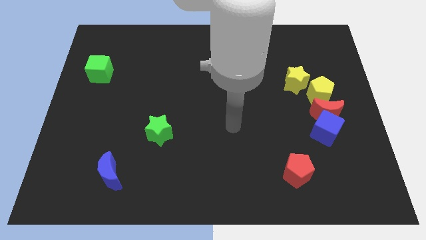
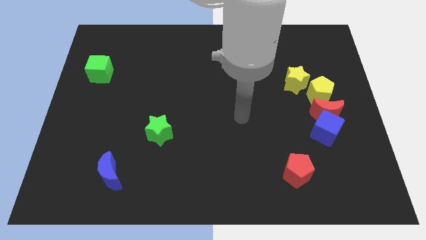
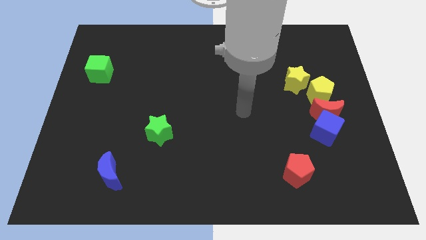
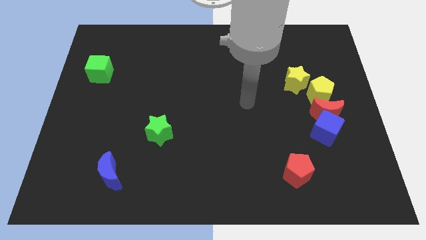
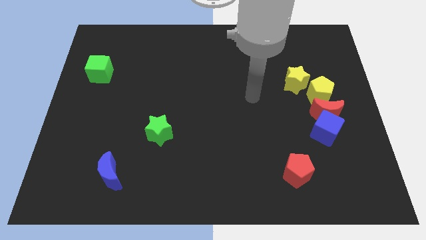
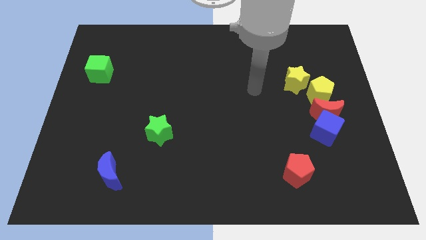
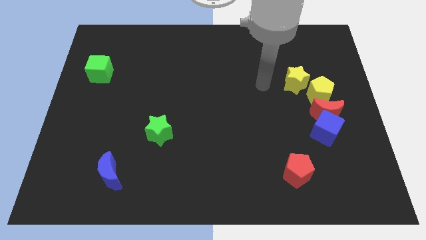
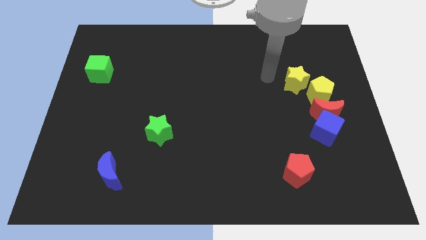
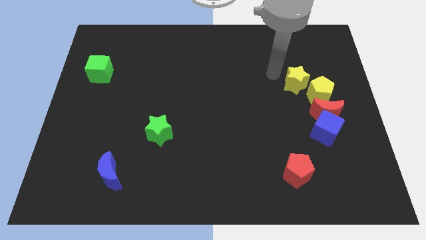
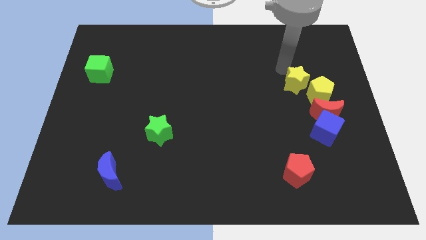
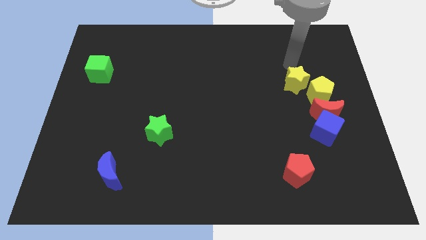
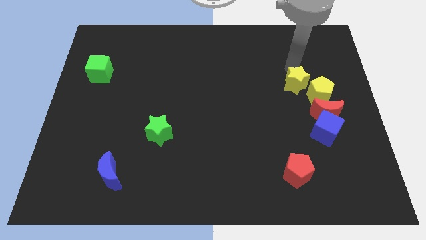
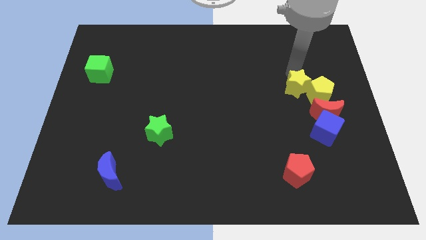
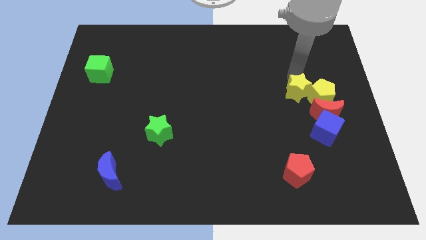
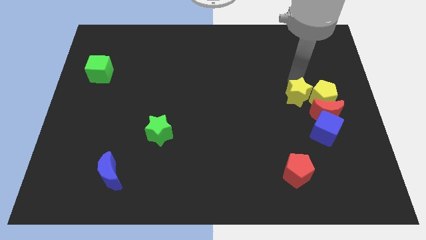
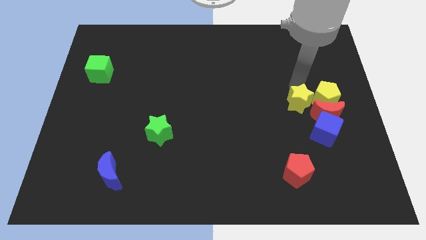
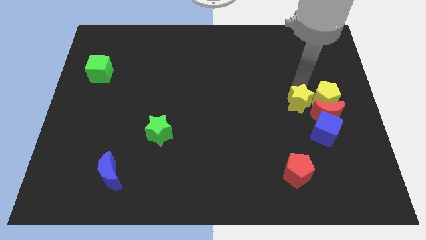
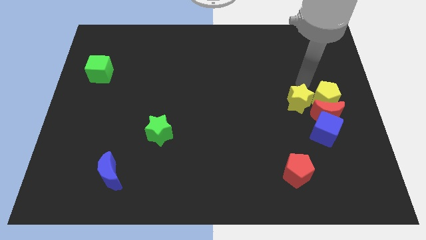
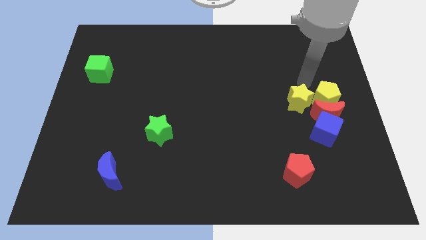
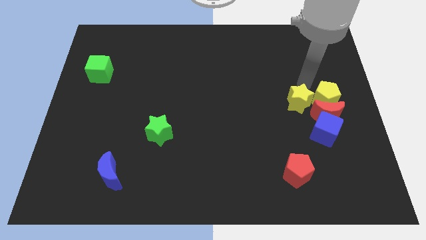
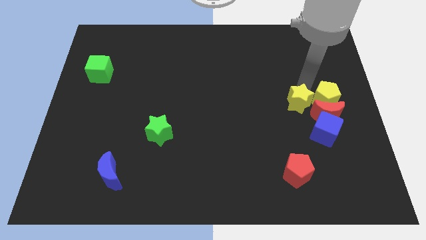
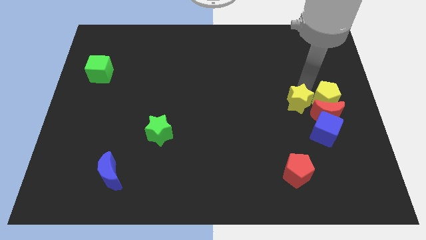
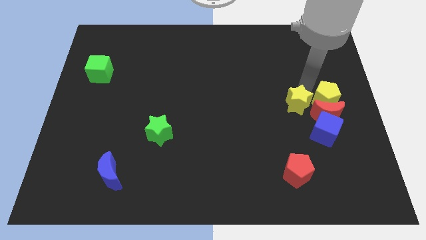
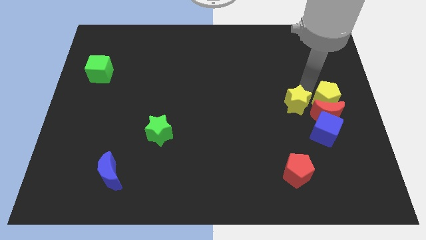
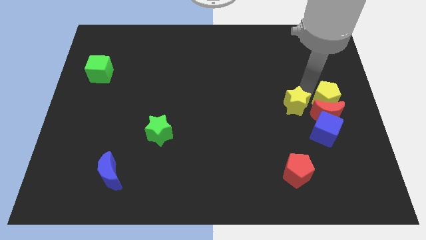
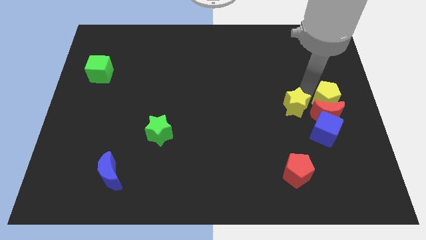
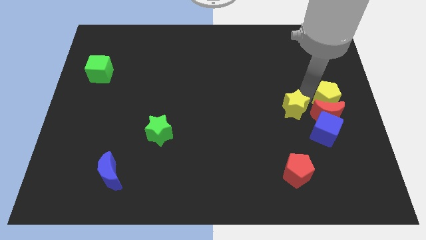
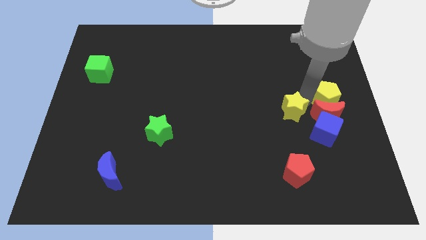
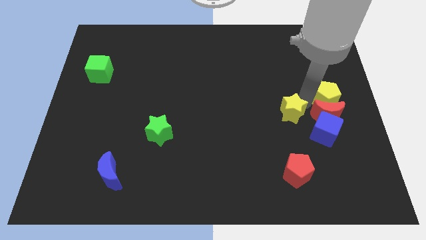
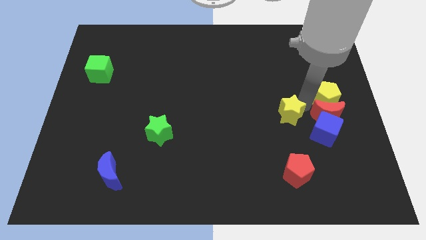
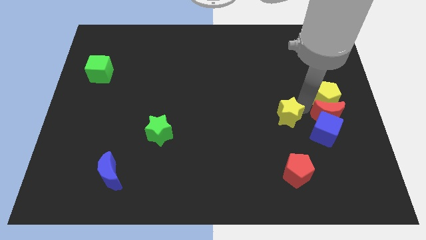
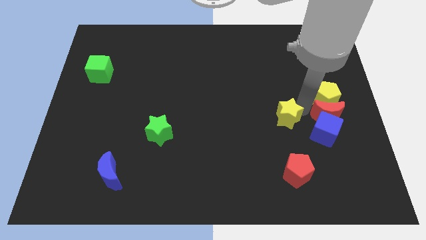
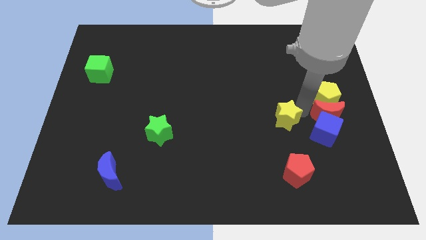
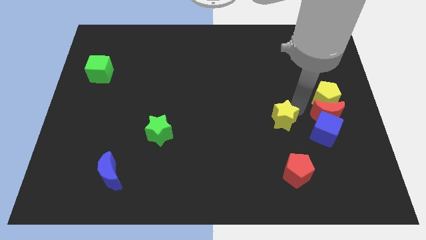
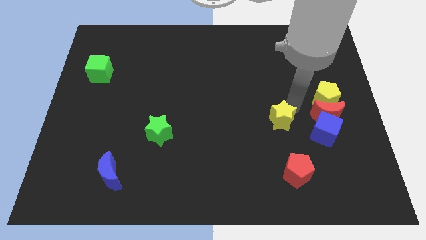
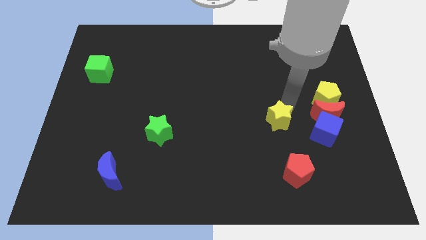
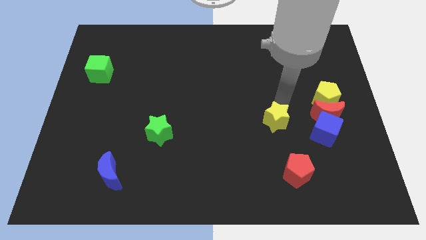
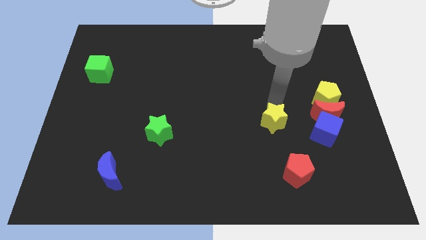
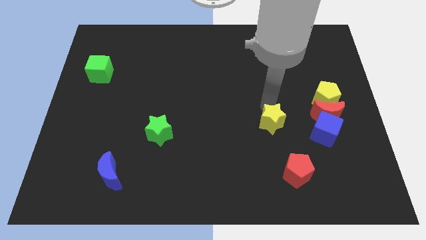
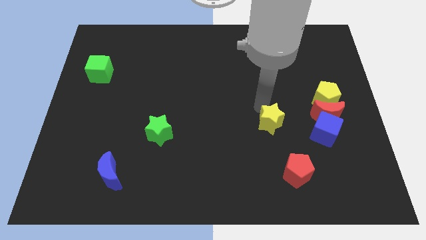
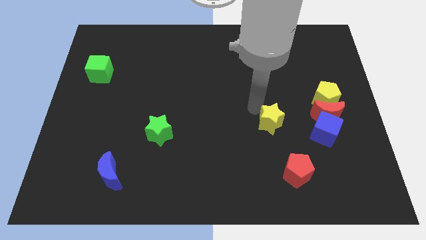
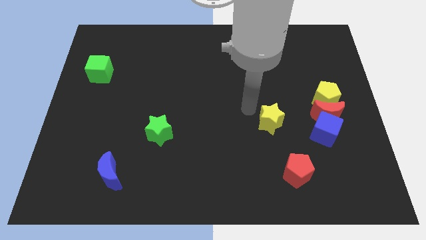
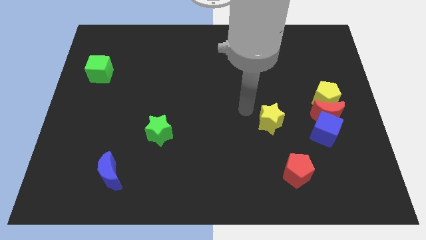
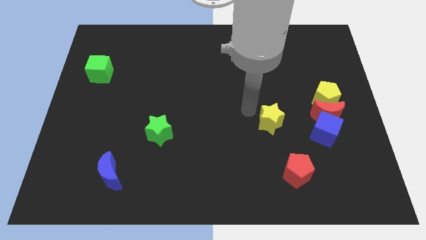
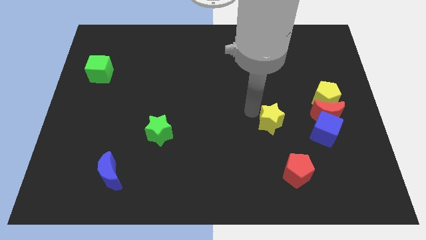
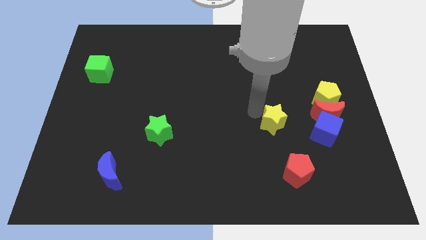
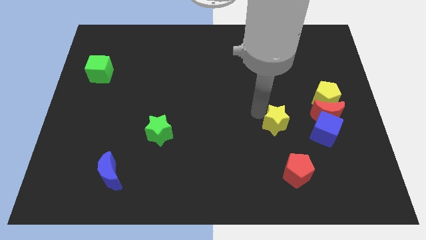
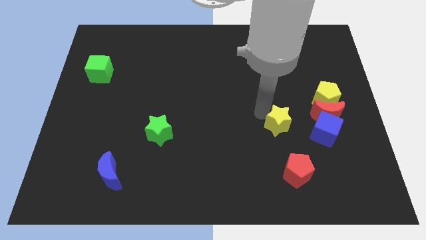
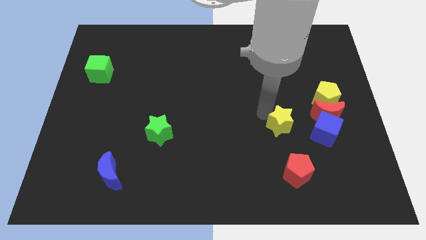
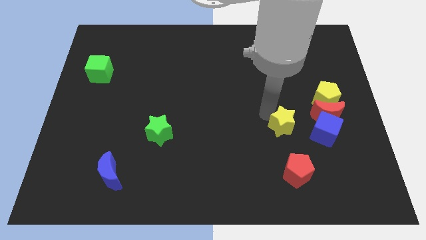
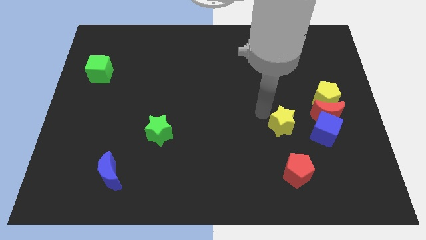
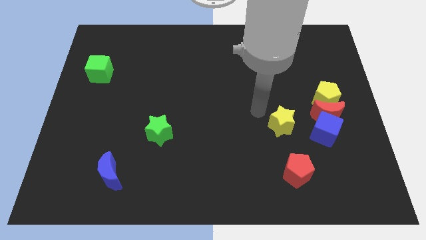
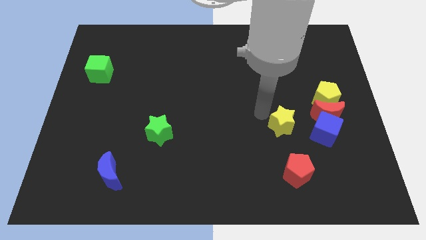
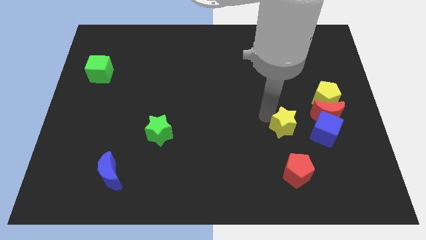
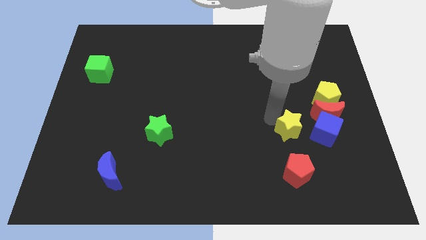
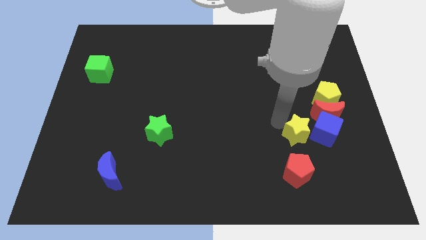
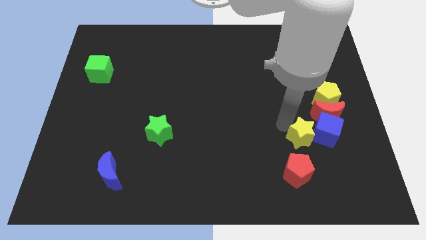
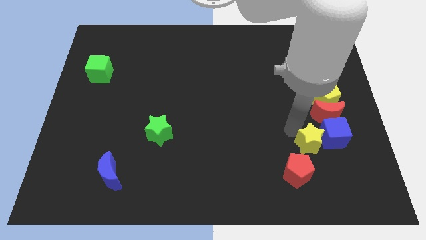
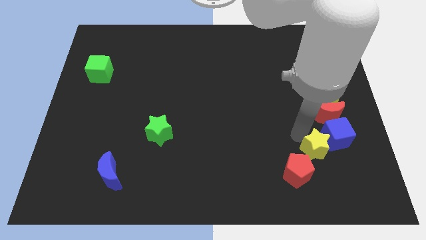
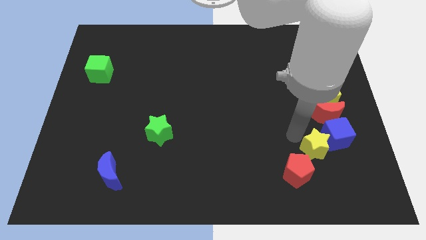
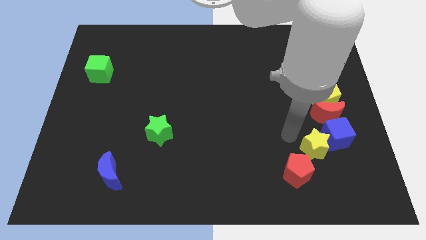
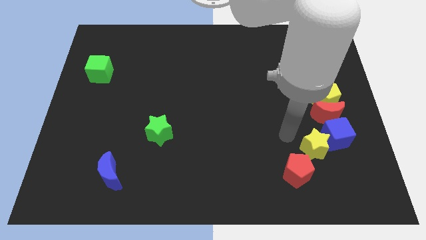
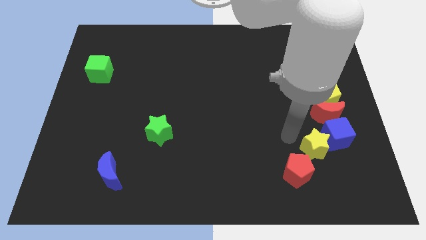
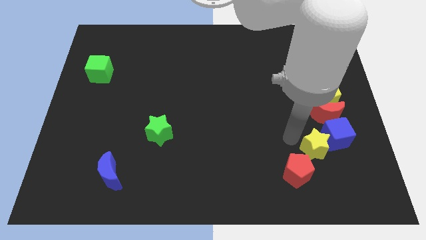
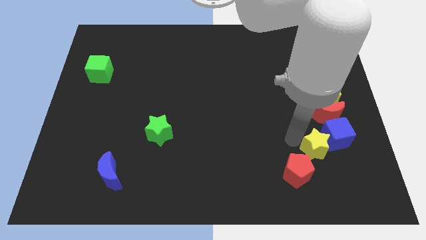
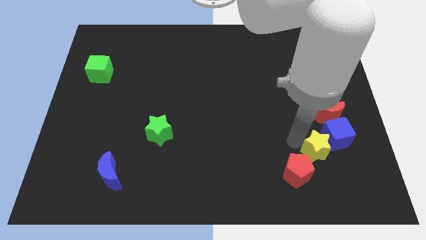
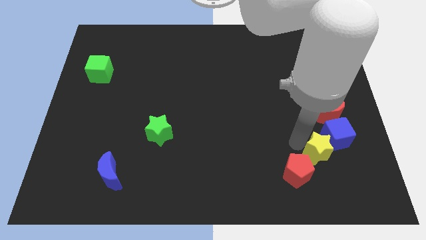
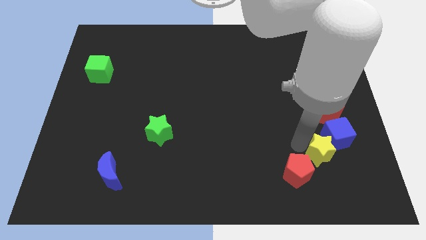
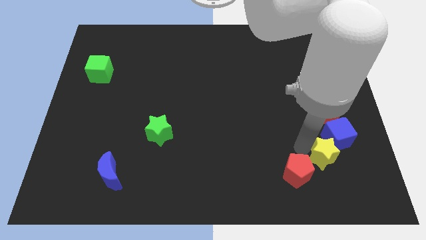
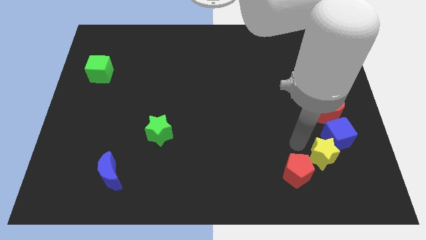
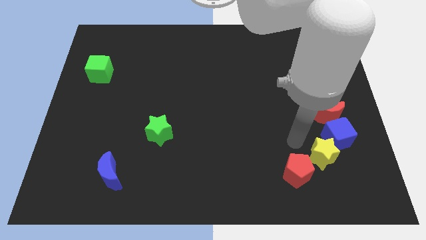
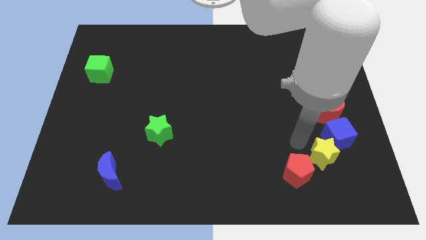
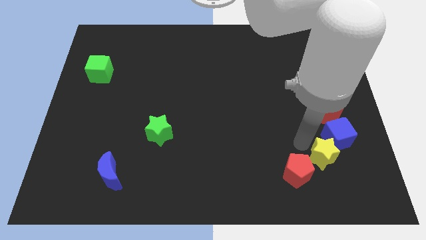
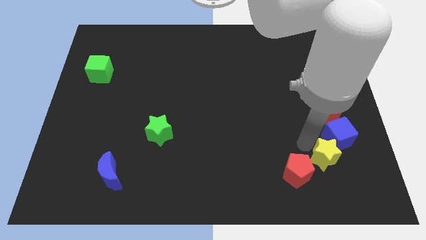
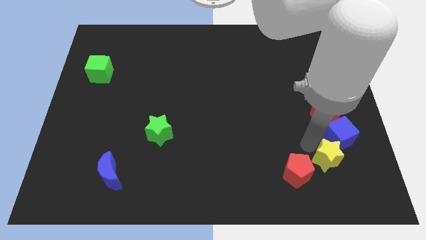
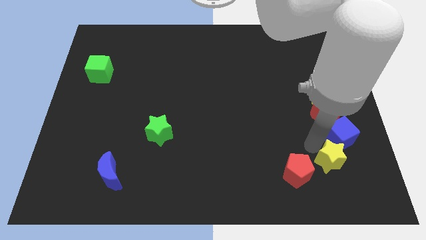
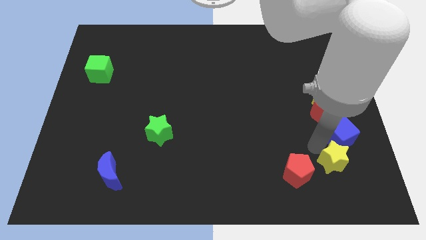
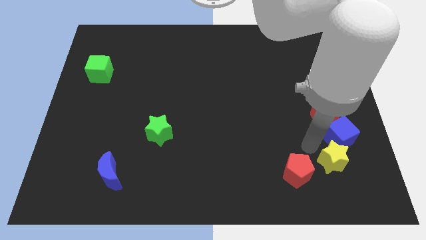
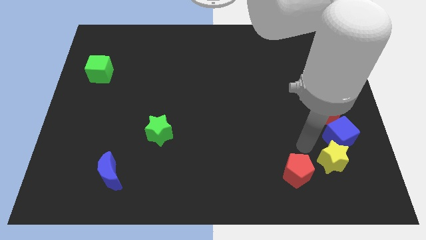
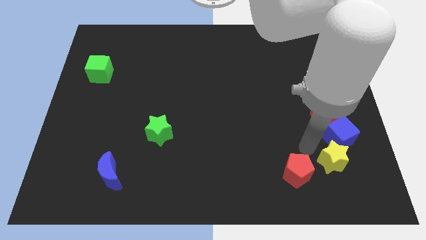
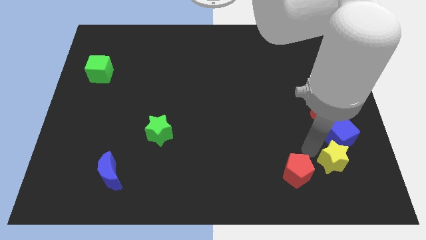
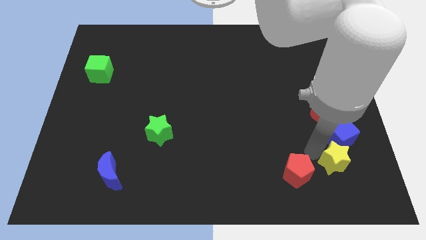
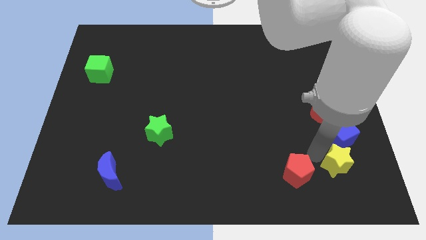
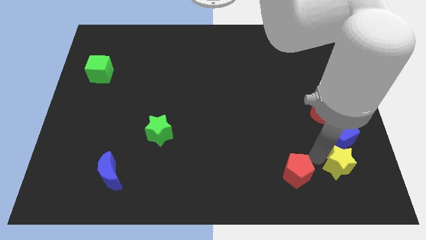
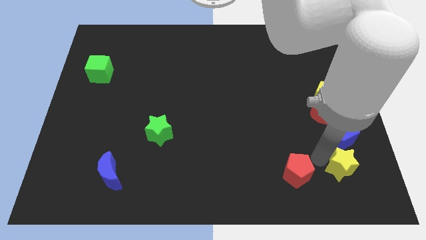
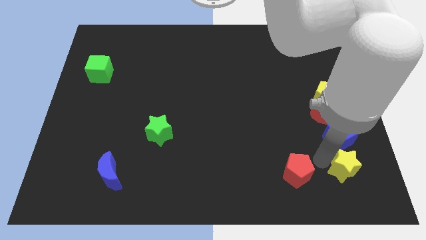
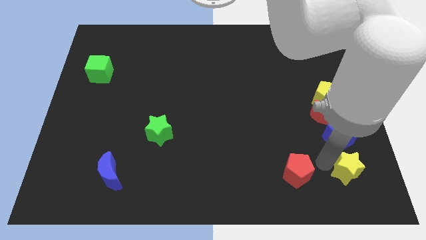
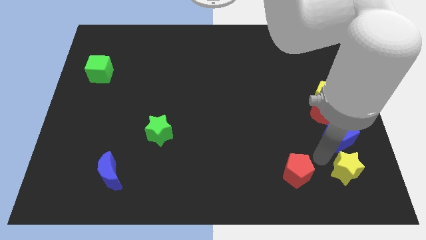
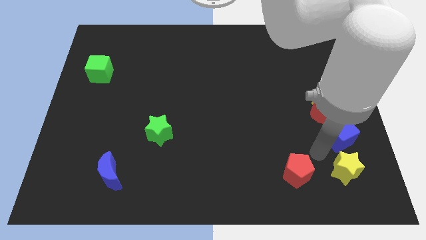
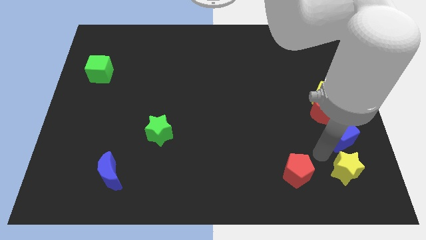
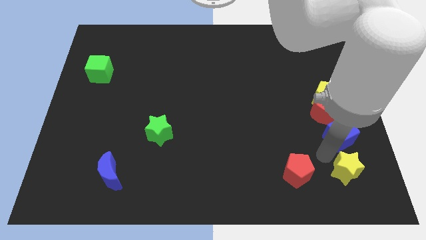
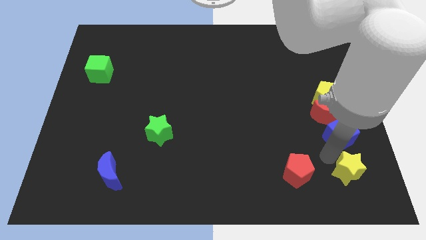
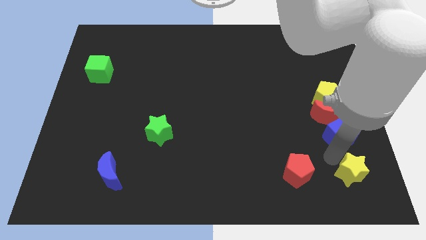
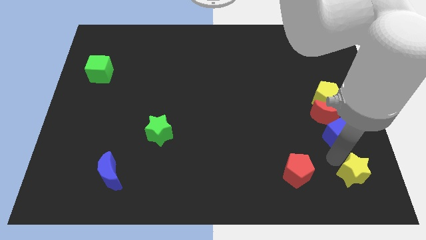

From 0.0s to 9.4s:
push the yellow star to the lower right corner
